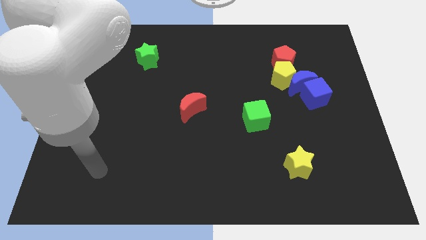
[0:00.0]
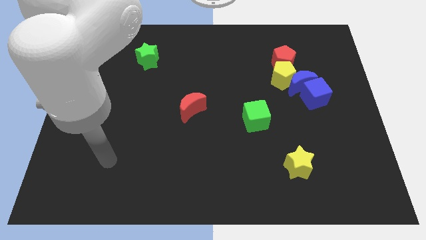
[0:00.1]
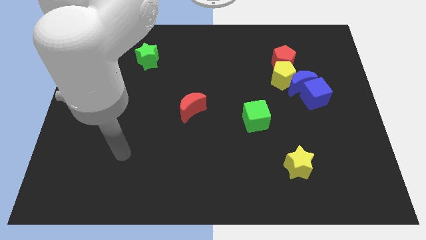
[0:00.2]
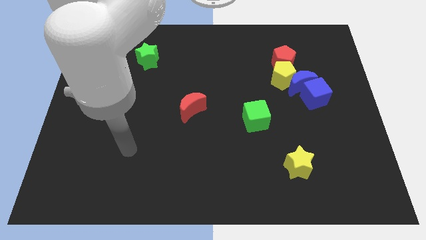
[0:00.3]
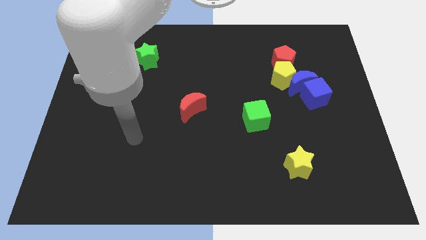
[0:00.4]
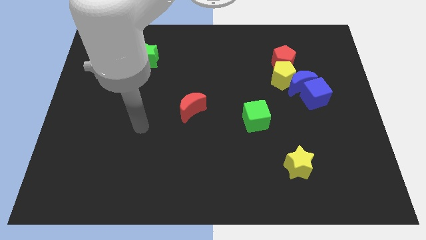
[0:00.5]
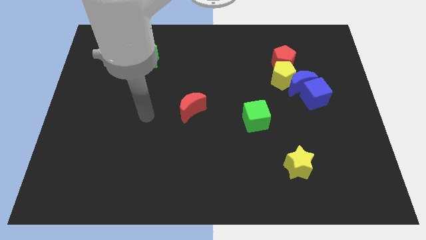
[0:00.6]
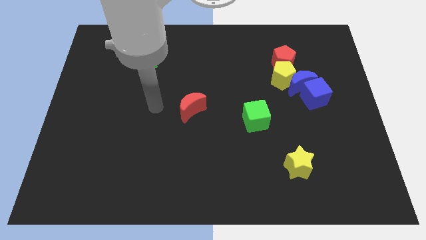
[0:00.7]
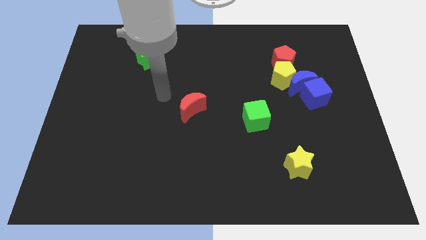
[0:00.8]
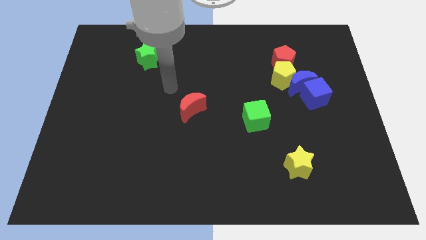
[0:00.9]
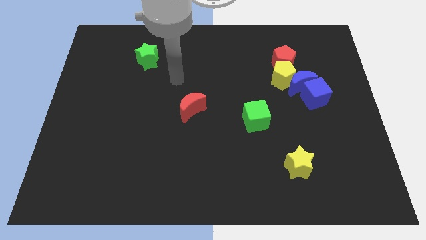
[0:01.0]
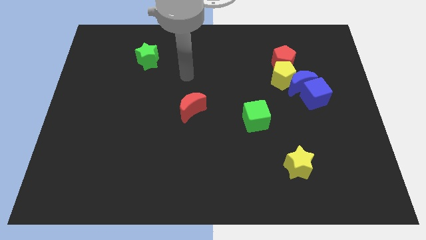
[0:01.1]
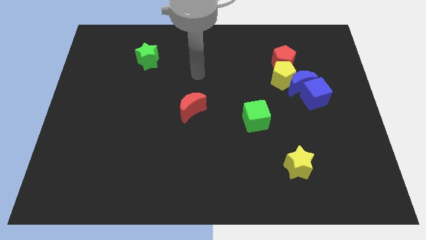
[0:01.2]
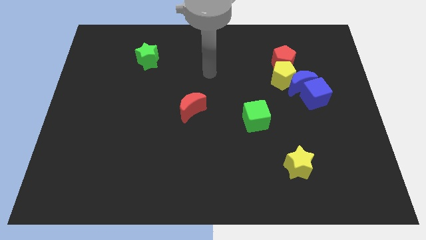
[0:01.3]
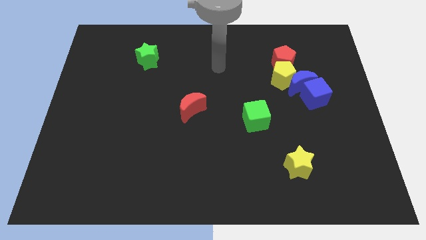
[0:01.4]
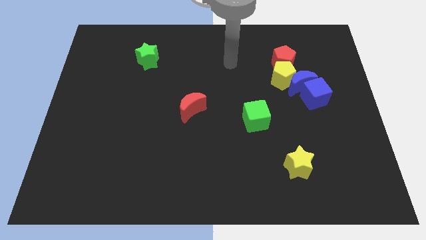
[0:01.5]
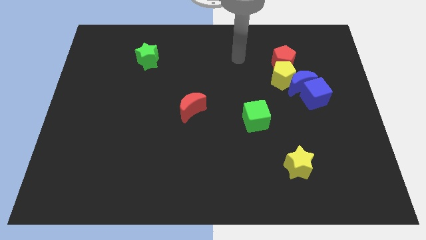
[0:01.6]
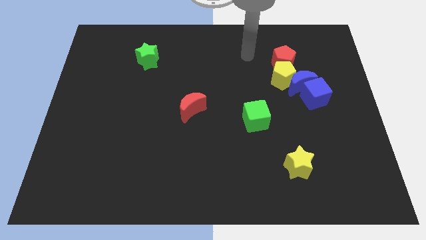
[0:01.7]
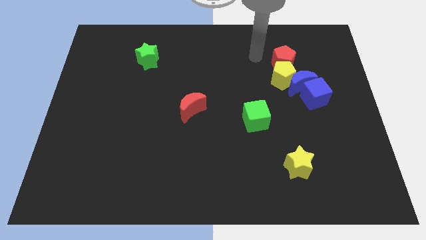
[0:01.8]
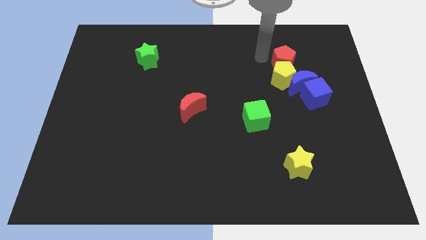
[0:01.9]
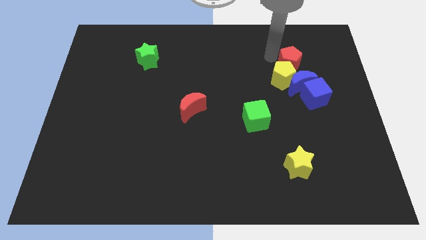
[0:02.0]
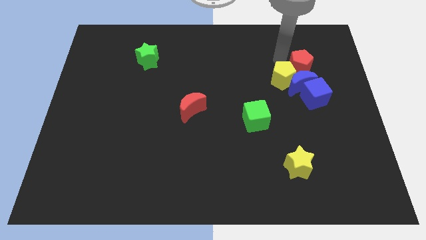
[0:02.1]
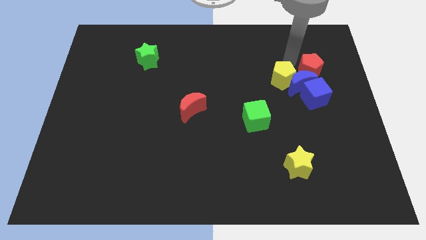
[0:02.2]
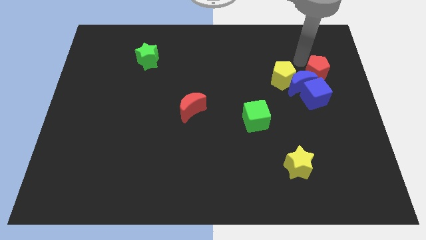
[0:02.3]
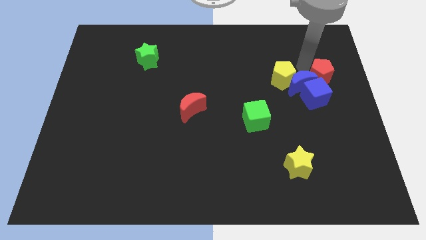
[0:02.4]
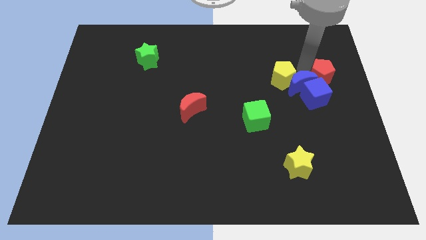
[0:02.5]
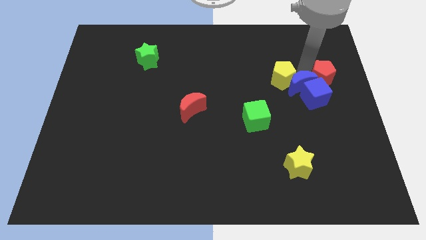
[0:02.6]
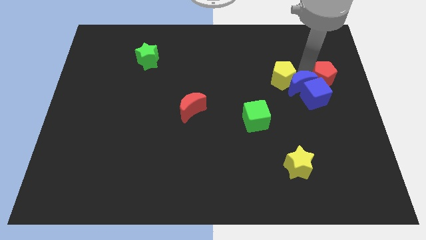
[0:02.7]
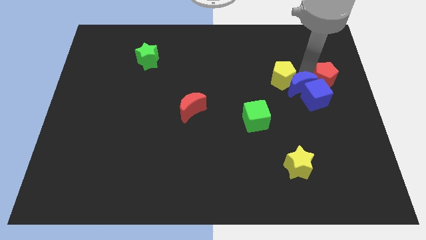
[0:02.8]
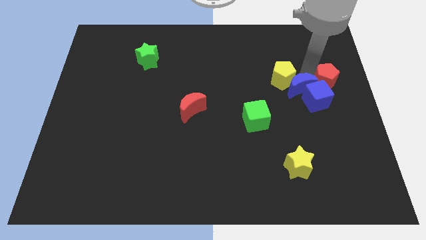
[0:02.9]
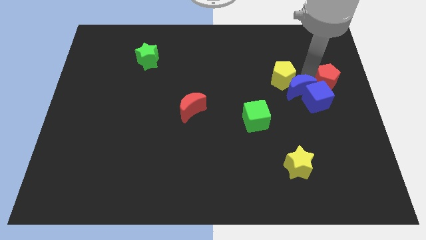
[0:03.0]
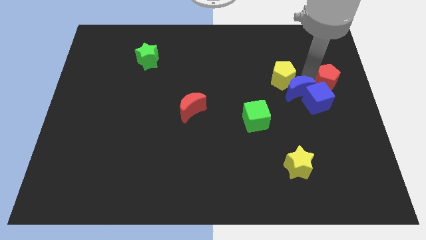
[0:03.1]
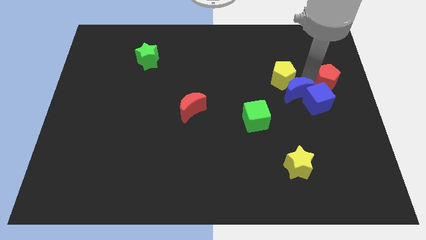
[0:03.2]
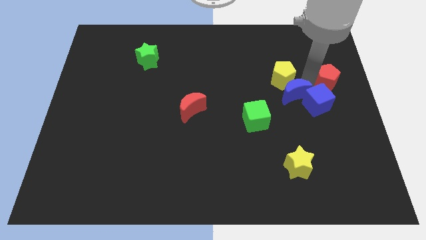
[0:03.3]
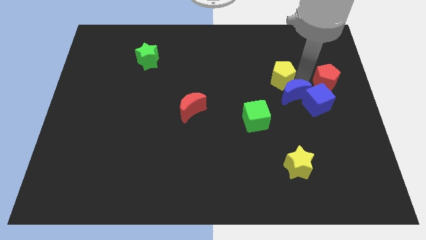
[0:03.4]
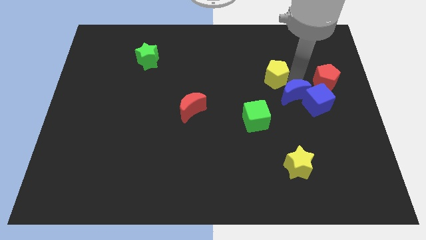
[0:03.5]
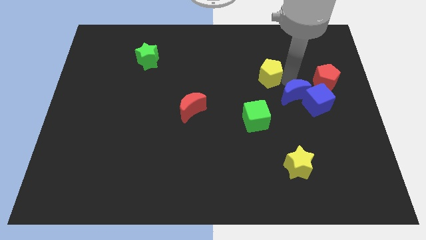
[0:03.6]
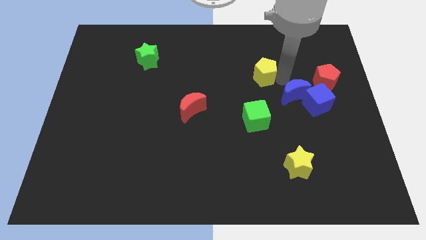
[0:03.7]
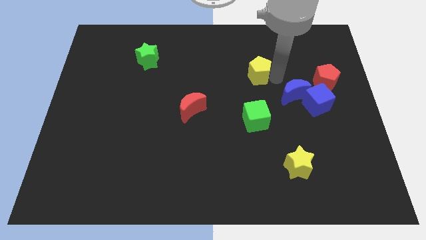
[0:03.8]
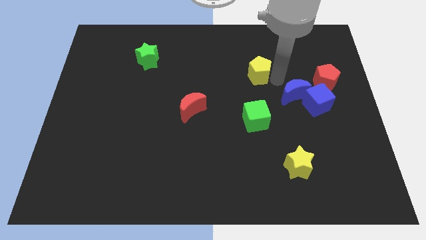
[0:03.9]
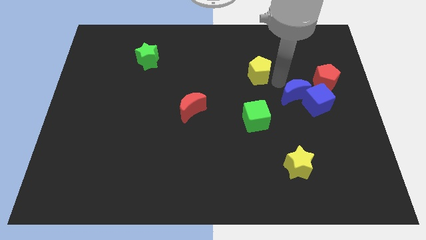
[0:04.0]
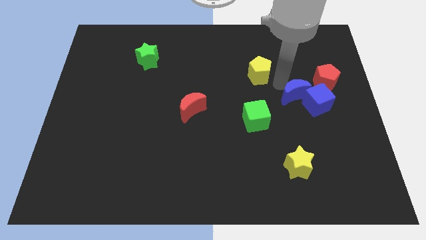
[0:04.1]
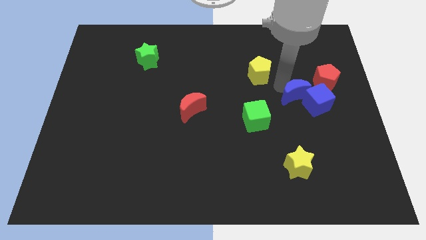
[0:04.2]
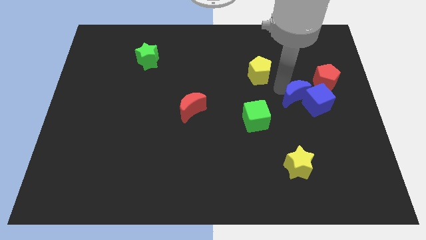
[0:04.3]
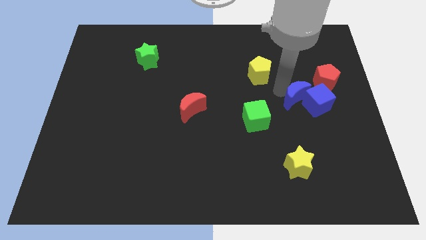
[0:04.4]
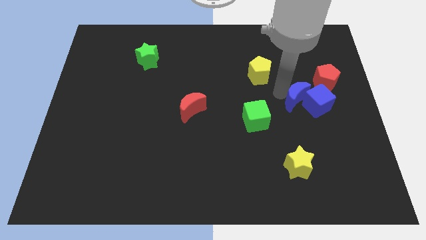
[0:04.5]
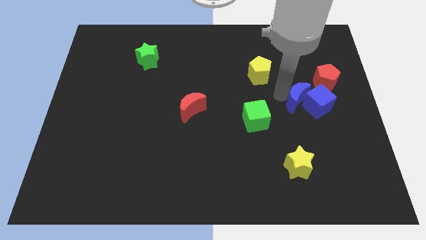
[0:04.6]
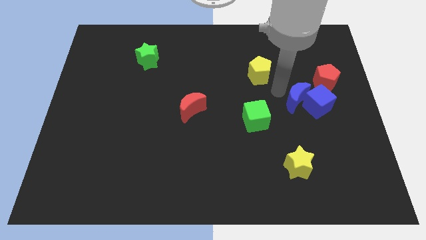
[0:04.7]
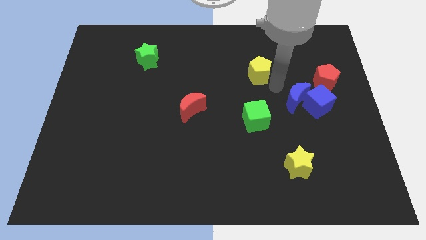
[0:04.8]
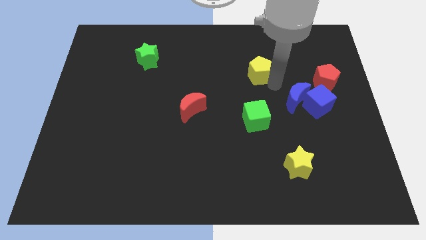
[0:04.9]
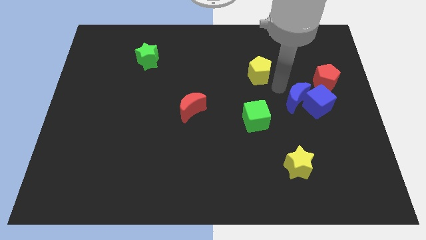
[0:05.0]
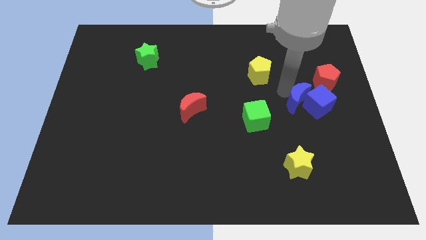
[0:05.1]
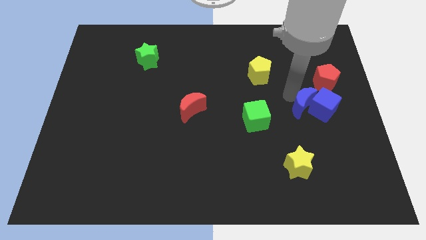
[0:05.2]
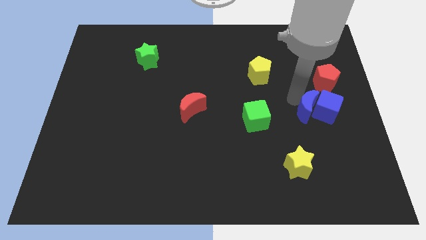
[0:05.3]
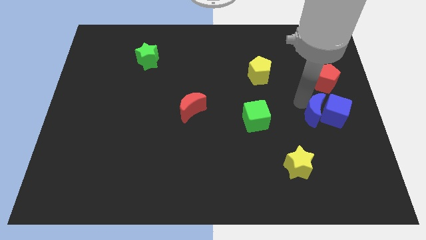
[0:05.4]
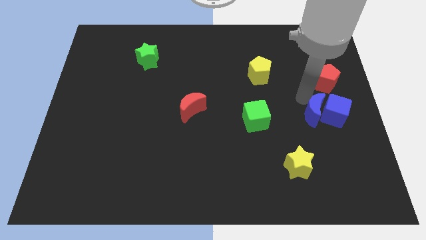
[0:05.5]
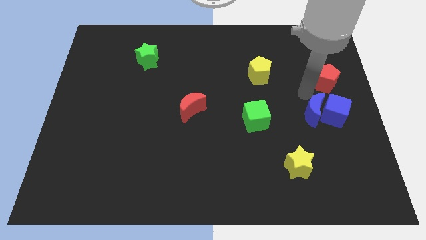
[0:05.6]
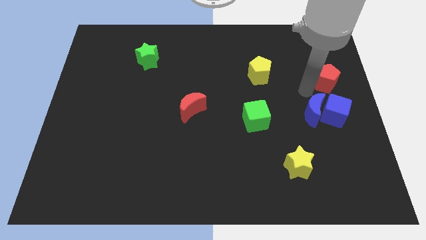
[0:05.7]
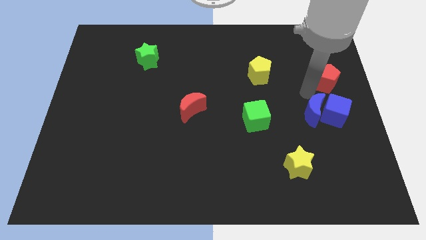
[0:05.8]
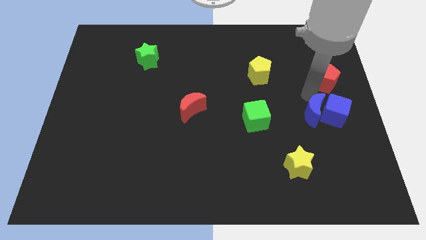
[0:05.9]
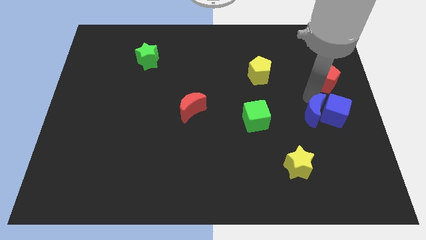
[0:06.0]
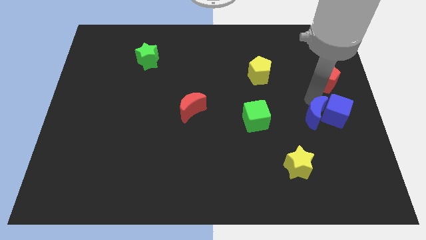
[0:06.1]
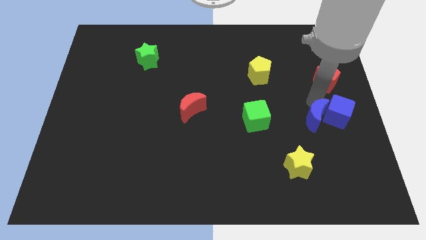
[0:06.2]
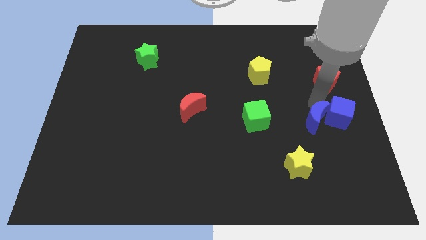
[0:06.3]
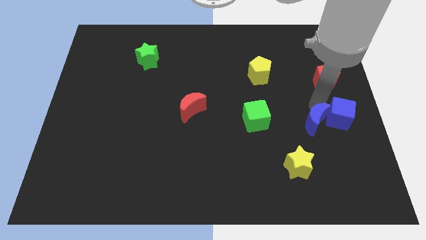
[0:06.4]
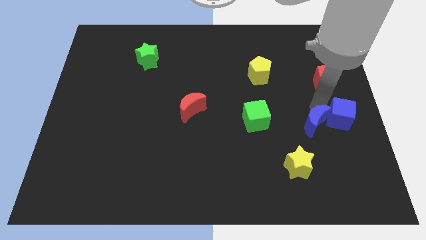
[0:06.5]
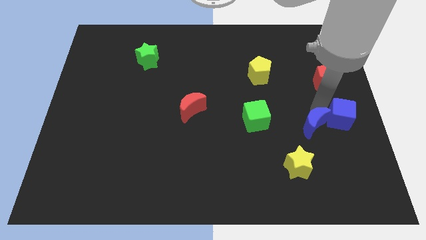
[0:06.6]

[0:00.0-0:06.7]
pull the blue moon apart from the yellow pentagon, blue cube, and red pentagon

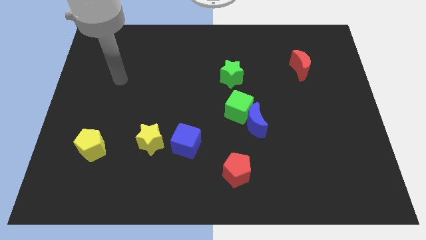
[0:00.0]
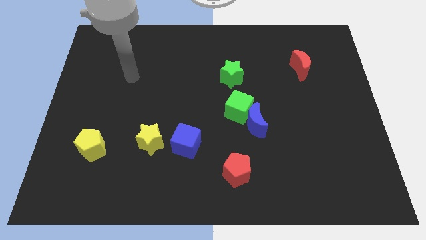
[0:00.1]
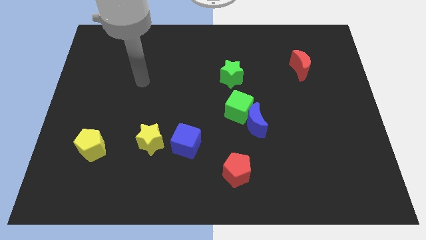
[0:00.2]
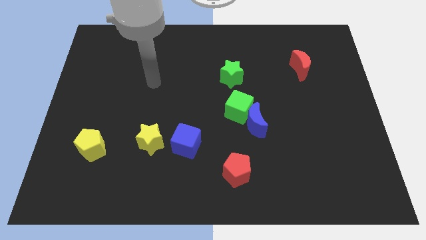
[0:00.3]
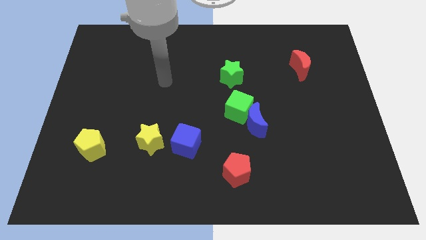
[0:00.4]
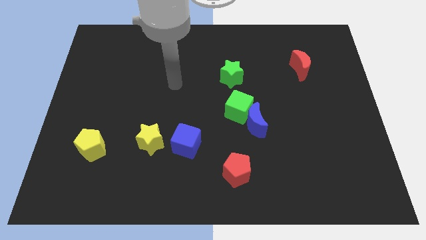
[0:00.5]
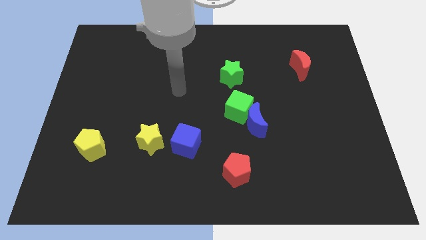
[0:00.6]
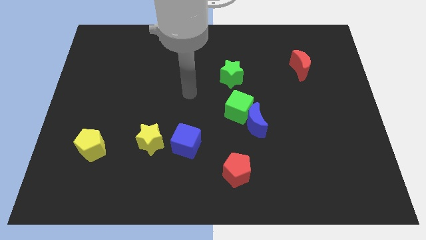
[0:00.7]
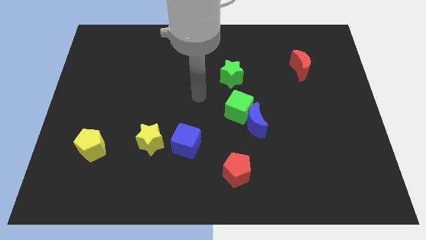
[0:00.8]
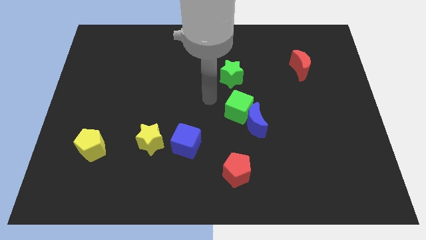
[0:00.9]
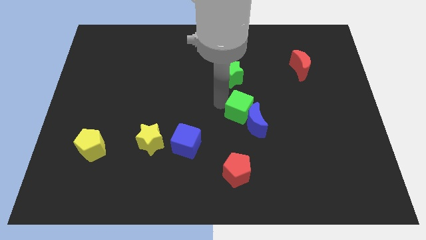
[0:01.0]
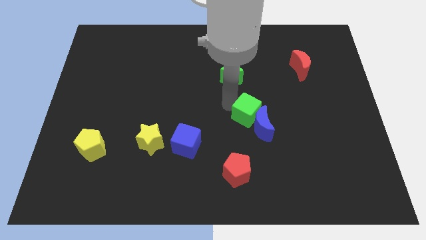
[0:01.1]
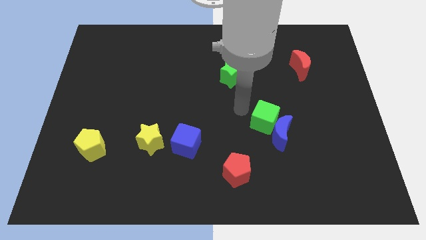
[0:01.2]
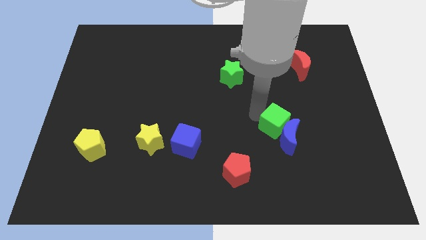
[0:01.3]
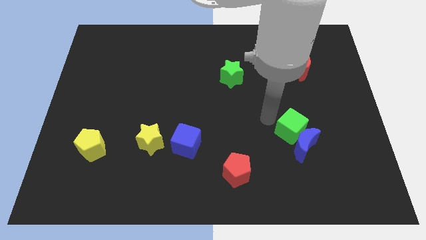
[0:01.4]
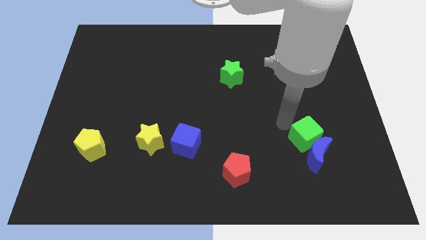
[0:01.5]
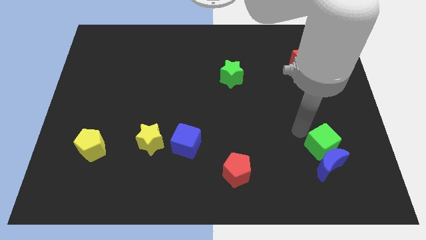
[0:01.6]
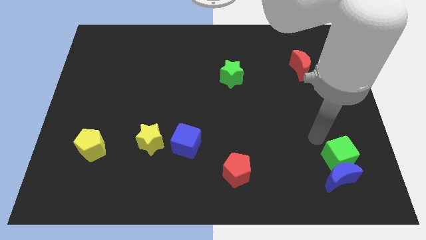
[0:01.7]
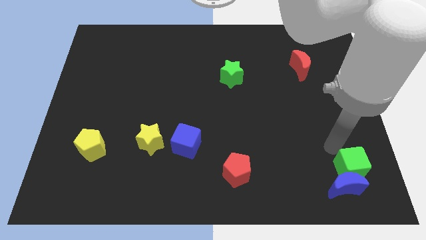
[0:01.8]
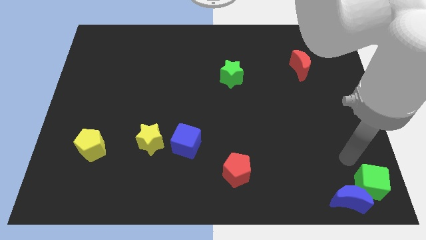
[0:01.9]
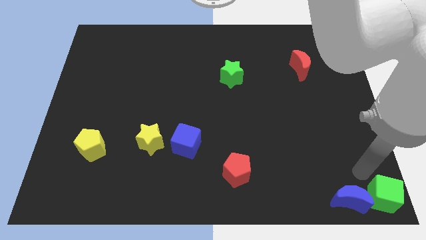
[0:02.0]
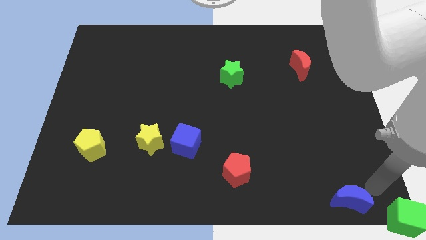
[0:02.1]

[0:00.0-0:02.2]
separate the blue moon from the green cube

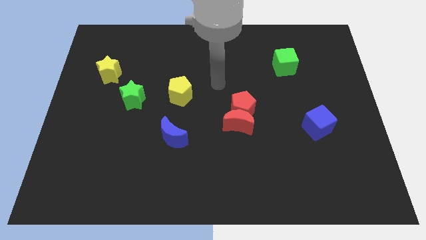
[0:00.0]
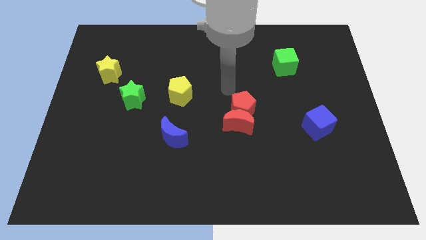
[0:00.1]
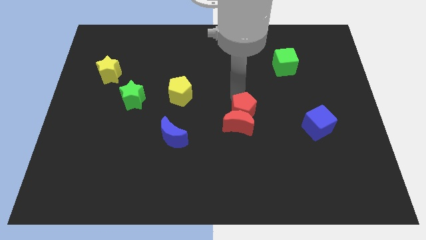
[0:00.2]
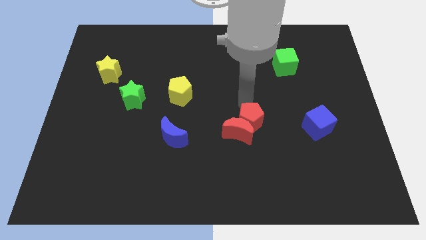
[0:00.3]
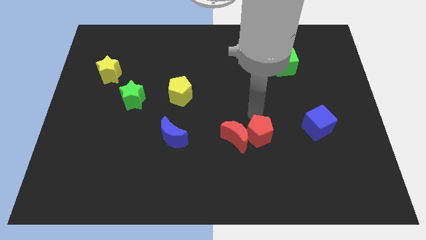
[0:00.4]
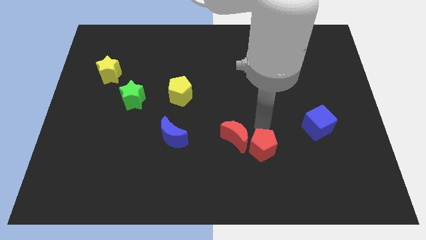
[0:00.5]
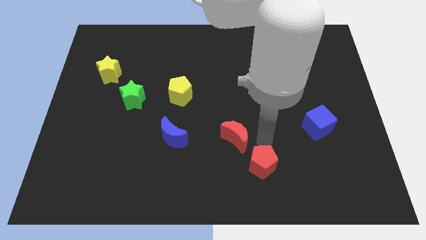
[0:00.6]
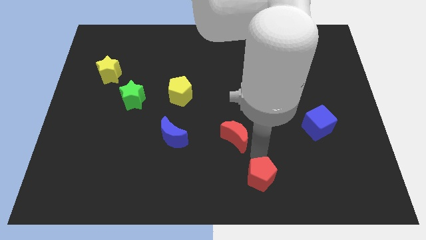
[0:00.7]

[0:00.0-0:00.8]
move the red moon away from the red pentagon
